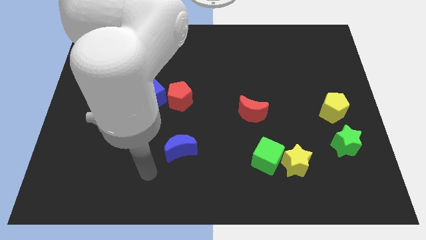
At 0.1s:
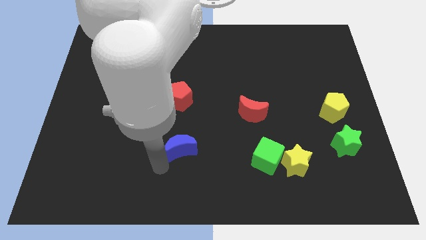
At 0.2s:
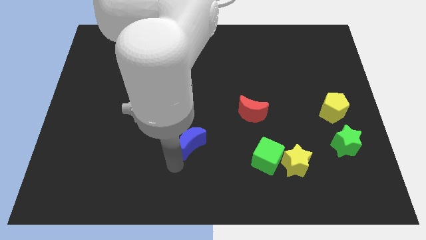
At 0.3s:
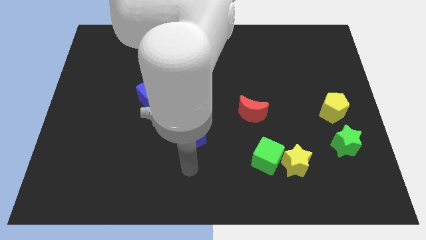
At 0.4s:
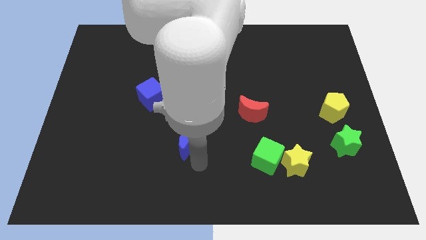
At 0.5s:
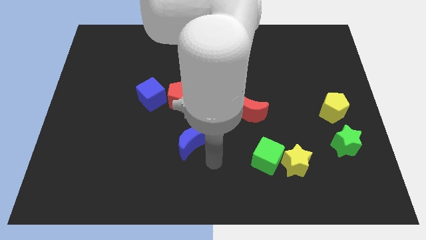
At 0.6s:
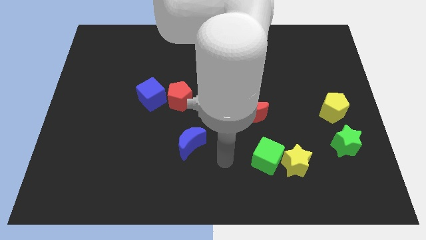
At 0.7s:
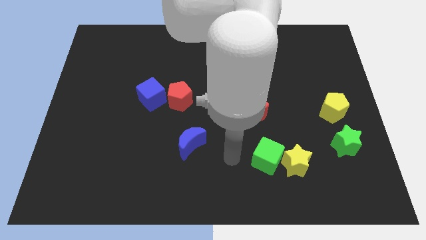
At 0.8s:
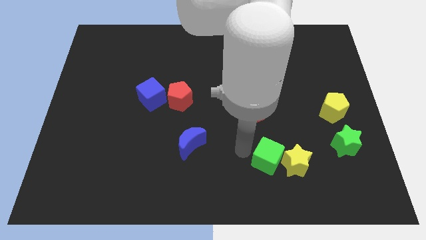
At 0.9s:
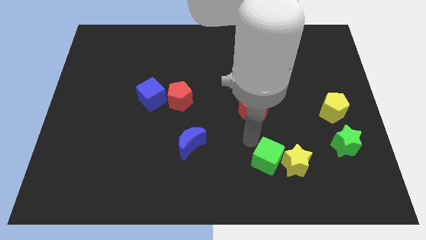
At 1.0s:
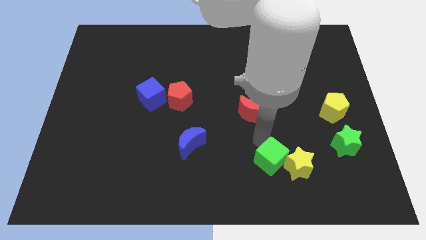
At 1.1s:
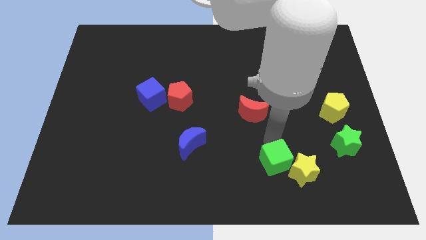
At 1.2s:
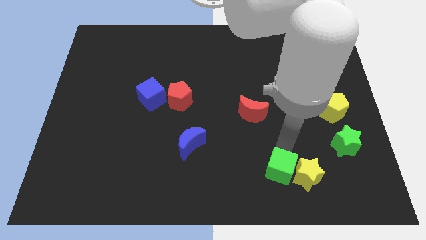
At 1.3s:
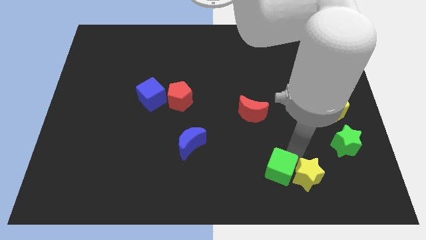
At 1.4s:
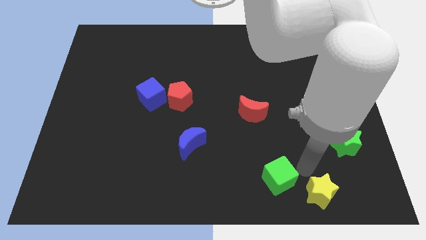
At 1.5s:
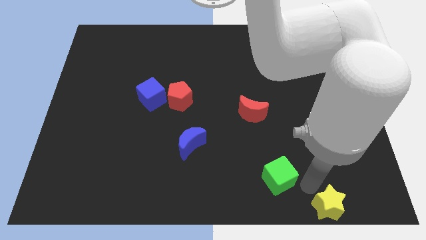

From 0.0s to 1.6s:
move the green cube away from the yellow star

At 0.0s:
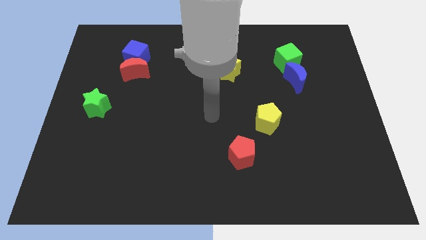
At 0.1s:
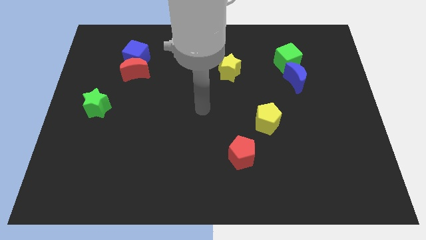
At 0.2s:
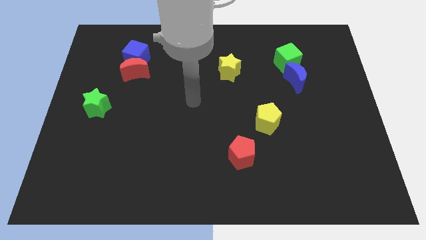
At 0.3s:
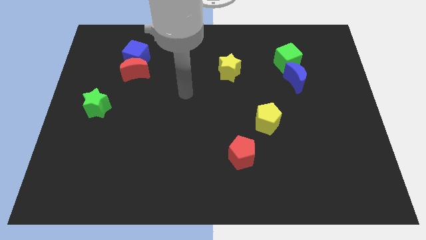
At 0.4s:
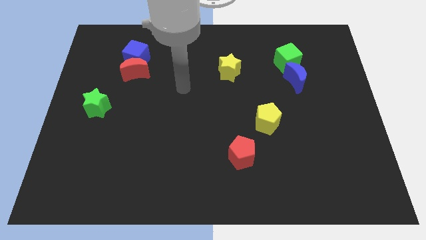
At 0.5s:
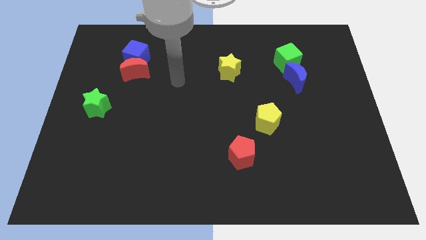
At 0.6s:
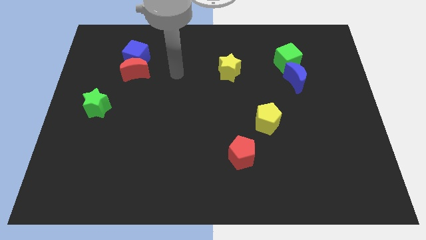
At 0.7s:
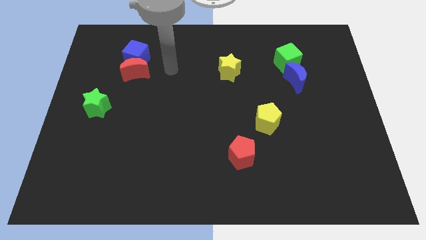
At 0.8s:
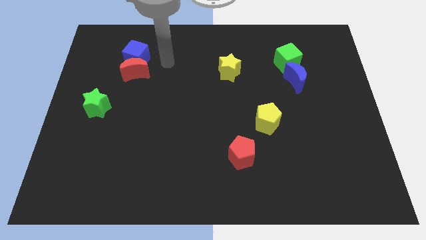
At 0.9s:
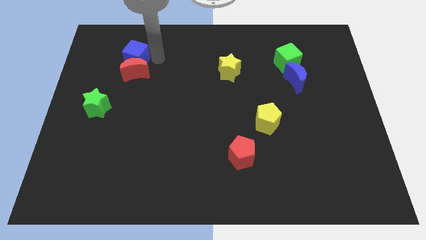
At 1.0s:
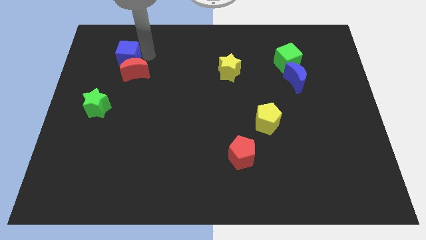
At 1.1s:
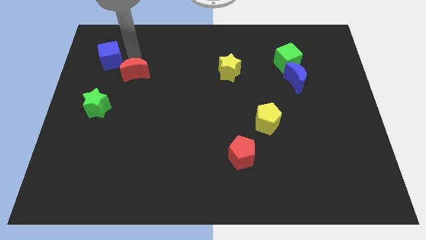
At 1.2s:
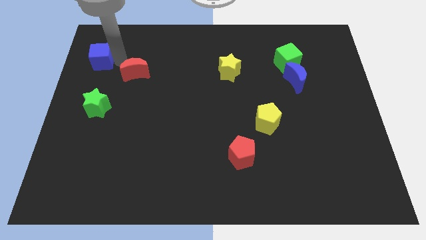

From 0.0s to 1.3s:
pull the red moon apart from the blue cube

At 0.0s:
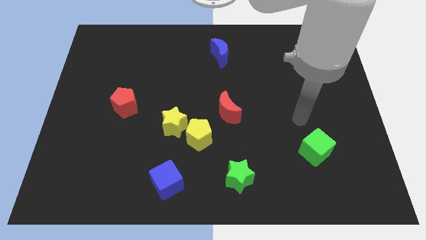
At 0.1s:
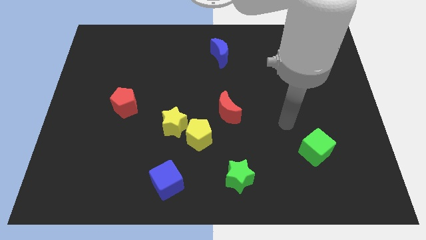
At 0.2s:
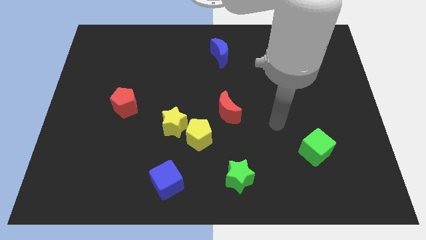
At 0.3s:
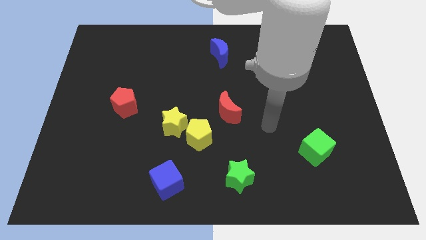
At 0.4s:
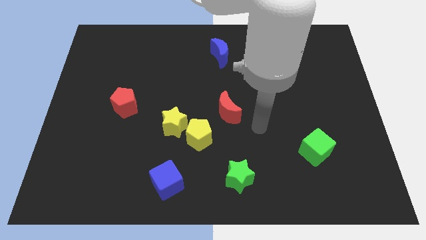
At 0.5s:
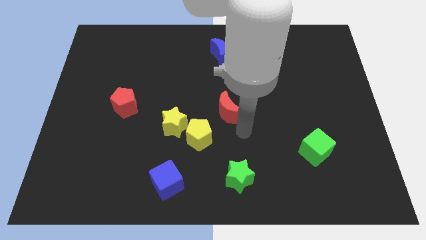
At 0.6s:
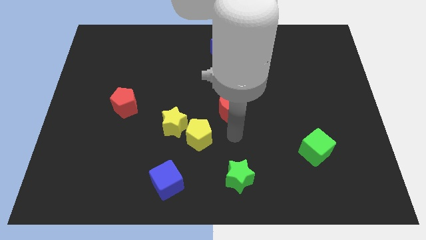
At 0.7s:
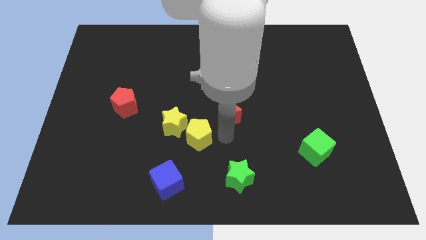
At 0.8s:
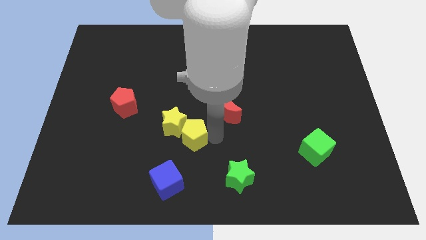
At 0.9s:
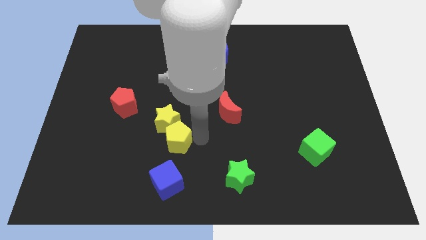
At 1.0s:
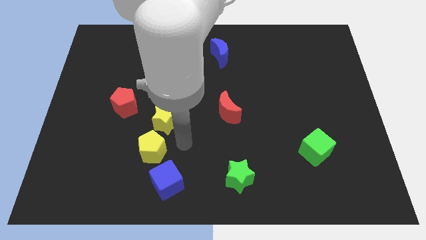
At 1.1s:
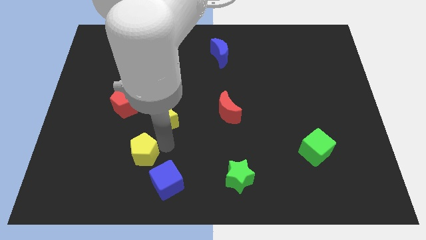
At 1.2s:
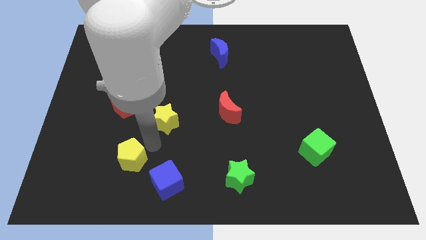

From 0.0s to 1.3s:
pull the yellow star apart from the yellow pentagon

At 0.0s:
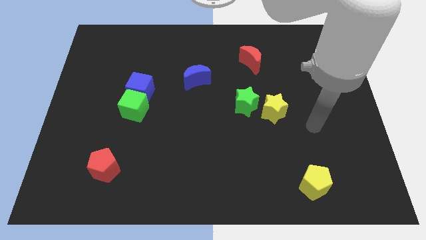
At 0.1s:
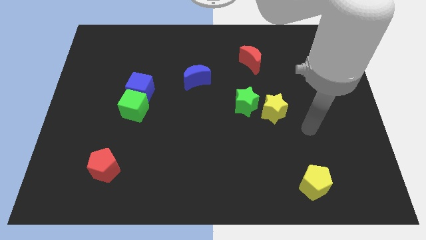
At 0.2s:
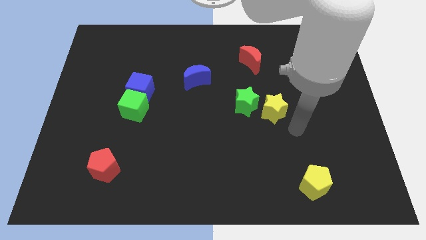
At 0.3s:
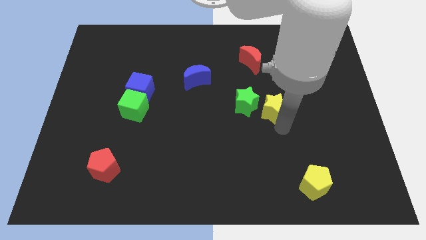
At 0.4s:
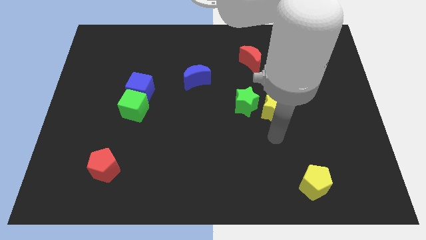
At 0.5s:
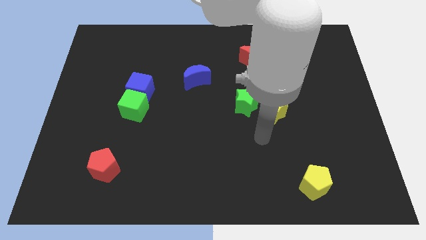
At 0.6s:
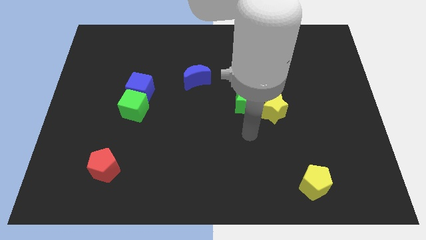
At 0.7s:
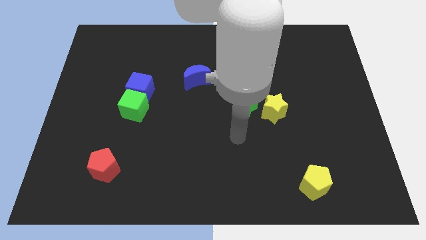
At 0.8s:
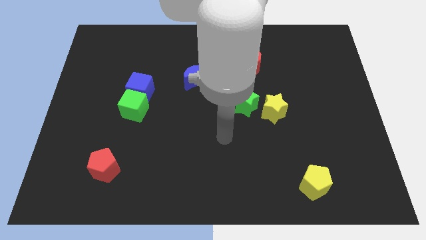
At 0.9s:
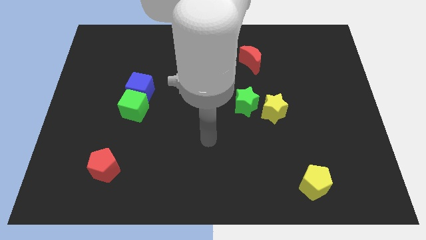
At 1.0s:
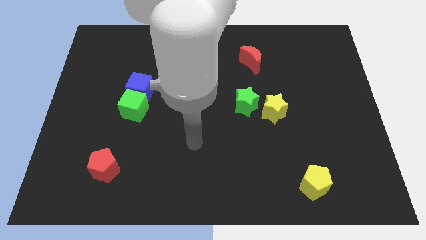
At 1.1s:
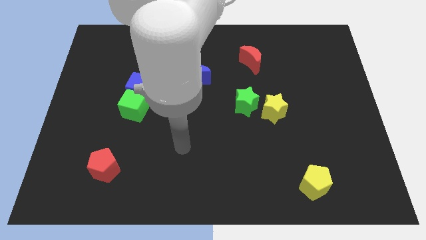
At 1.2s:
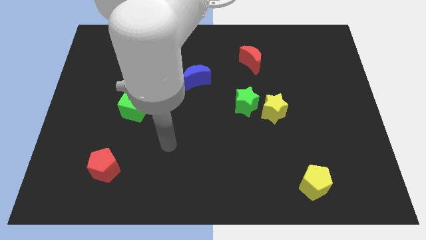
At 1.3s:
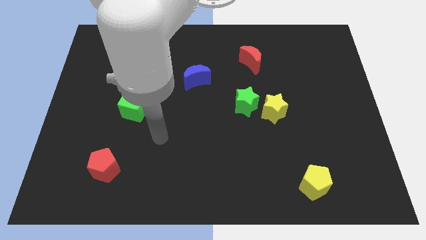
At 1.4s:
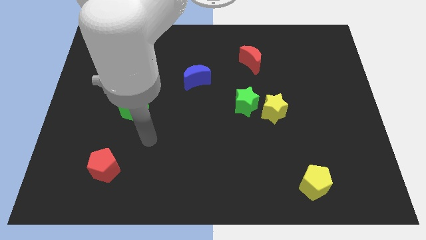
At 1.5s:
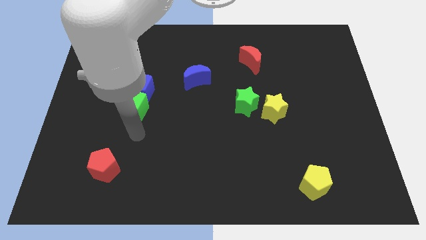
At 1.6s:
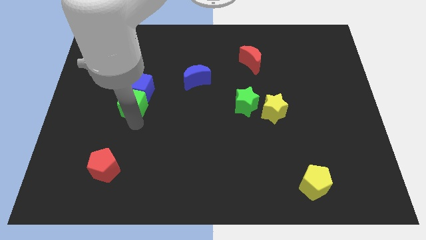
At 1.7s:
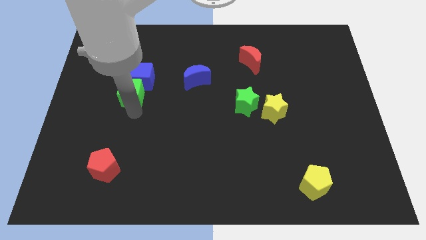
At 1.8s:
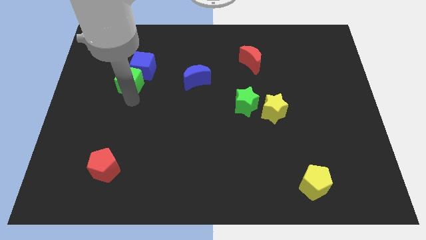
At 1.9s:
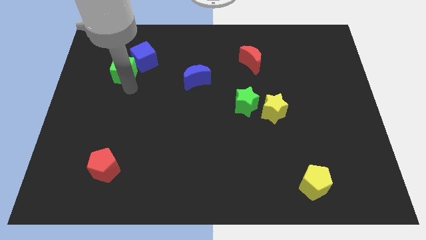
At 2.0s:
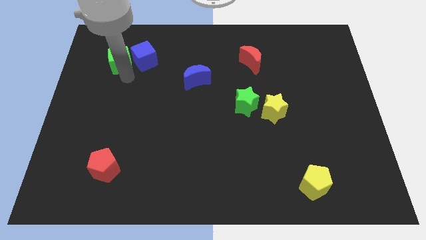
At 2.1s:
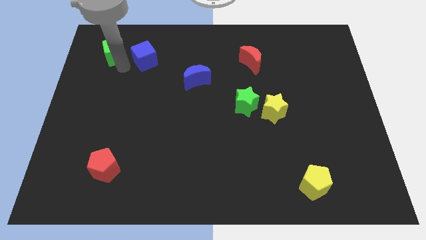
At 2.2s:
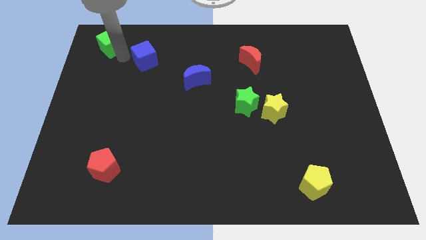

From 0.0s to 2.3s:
move the blue cube away from the green cube

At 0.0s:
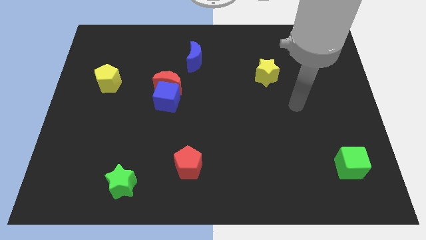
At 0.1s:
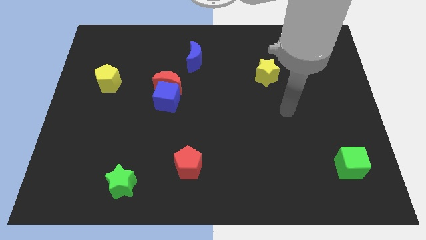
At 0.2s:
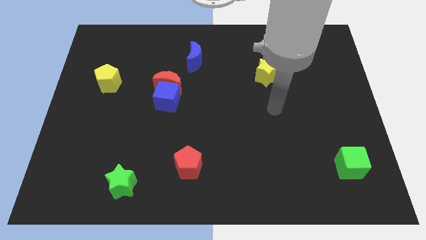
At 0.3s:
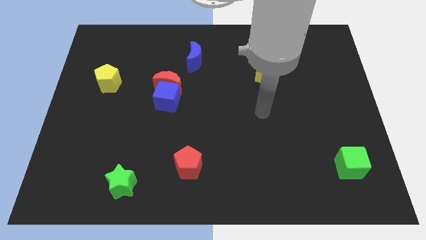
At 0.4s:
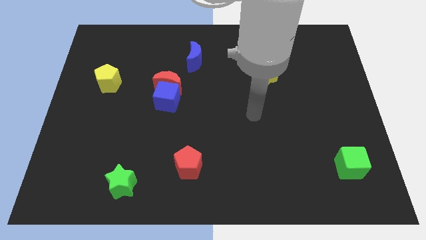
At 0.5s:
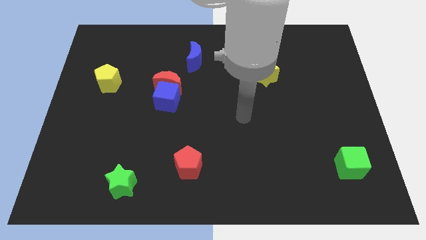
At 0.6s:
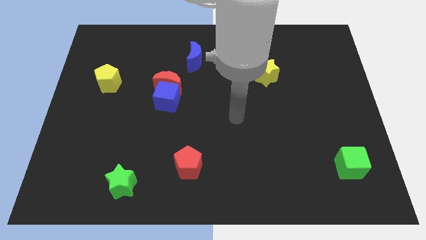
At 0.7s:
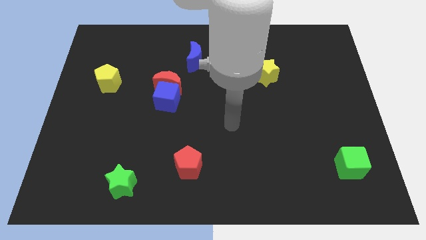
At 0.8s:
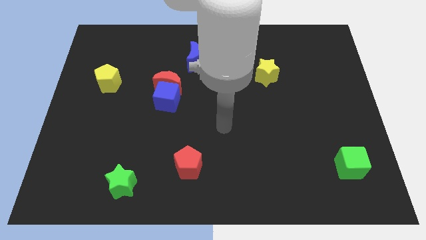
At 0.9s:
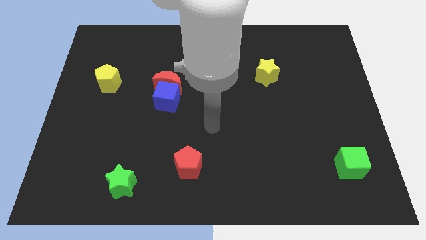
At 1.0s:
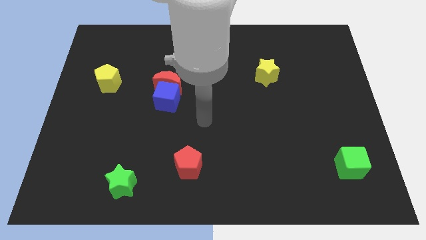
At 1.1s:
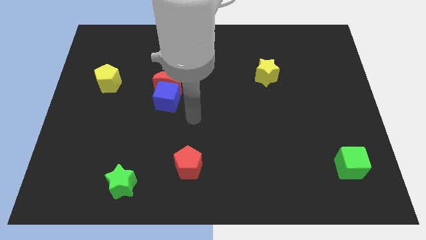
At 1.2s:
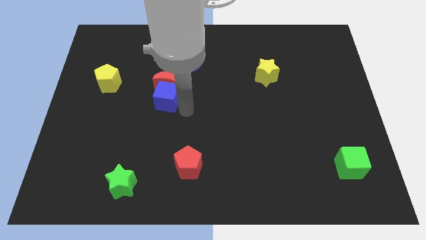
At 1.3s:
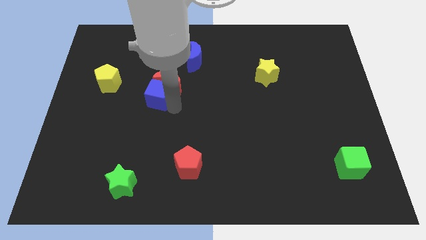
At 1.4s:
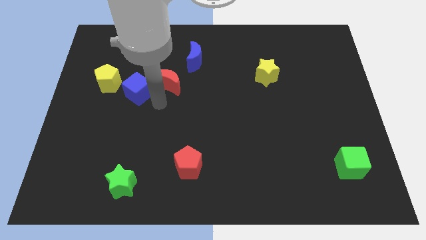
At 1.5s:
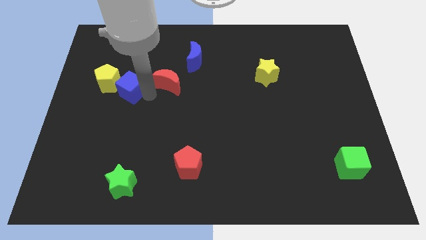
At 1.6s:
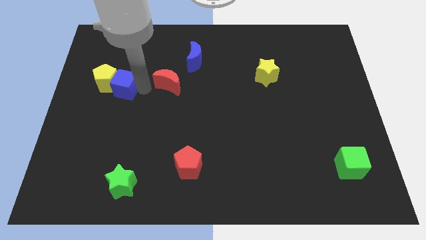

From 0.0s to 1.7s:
move the red moon away from the blue cube

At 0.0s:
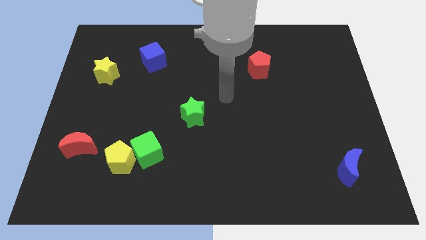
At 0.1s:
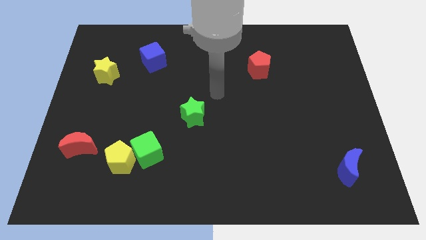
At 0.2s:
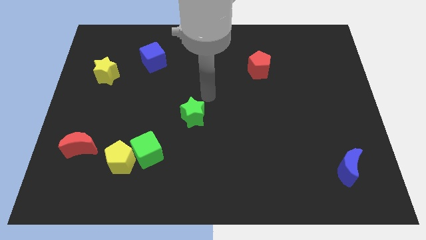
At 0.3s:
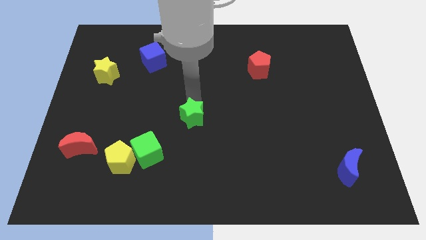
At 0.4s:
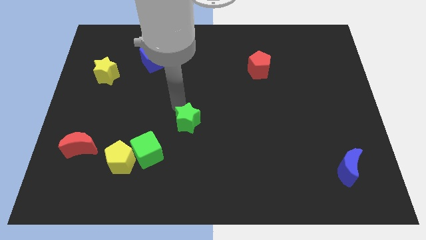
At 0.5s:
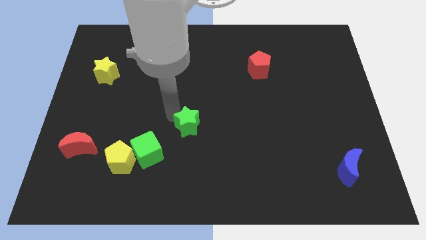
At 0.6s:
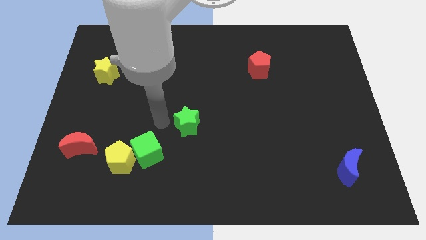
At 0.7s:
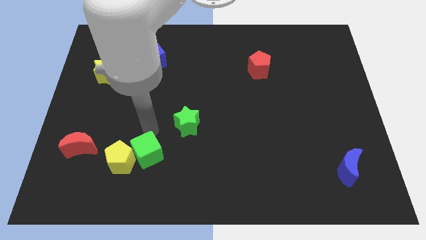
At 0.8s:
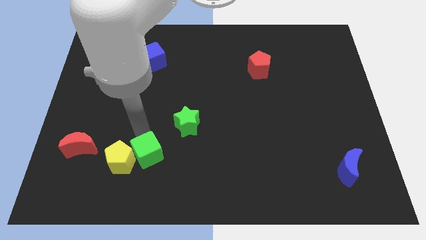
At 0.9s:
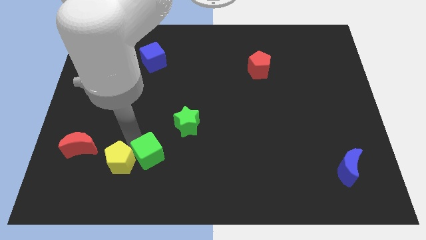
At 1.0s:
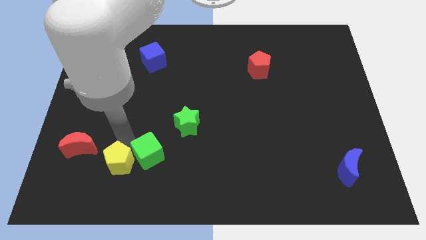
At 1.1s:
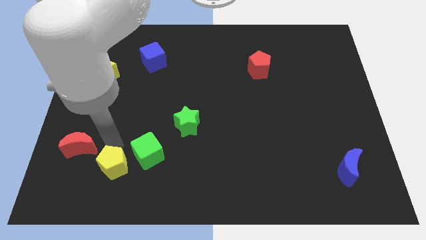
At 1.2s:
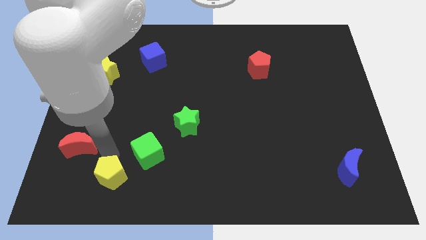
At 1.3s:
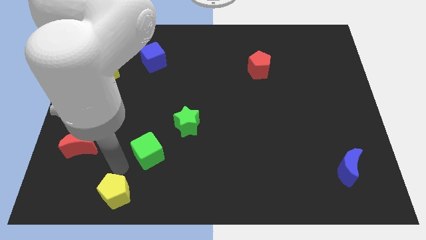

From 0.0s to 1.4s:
separate the green cube from the yellow pentagon
